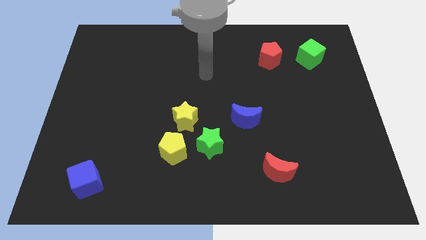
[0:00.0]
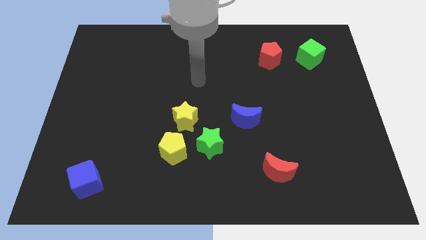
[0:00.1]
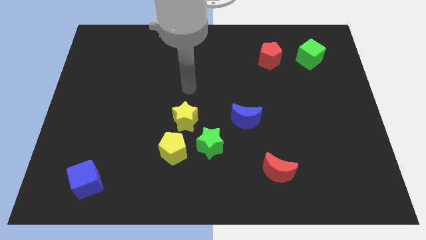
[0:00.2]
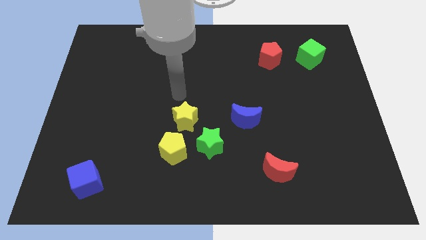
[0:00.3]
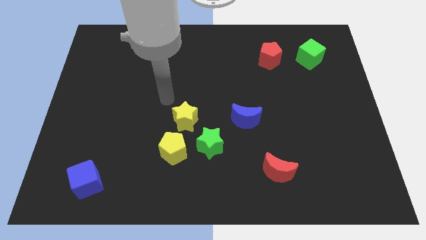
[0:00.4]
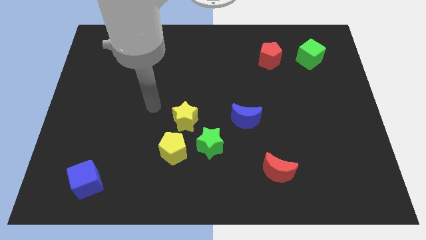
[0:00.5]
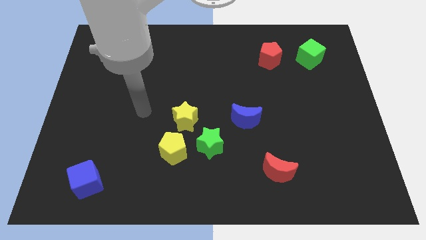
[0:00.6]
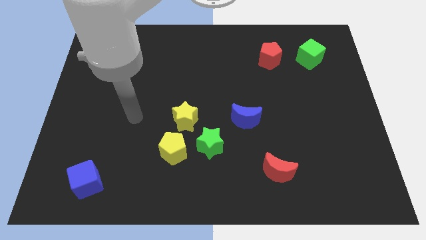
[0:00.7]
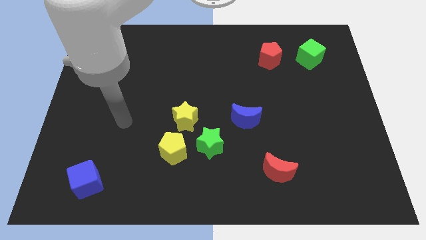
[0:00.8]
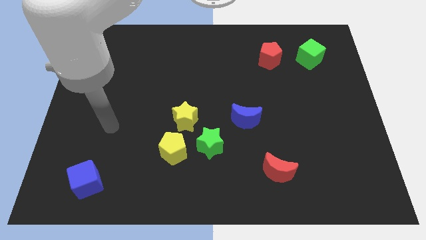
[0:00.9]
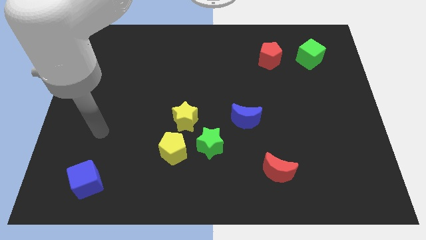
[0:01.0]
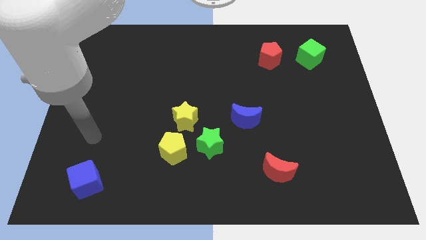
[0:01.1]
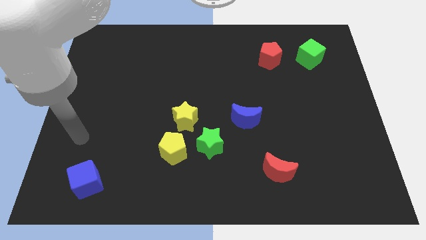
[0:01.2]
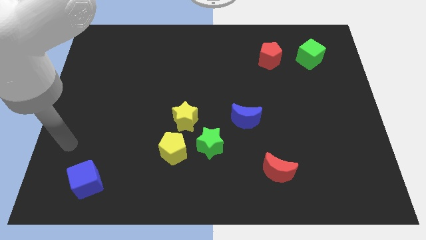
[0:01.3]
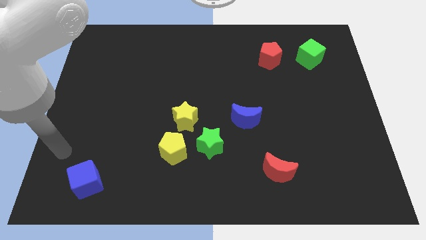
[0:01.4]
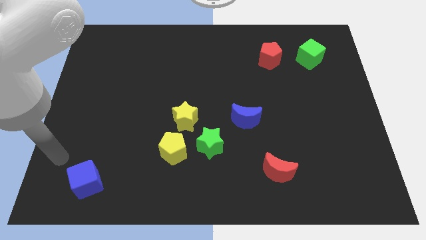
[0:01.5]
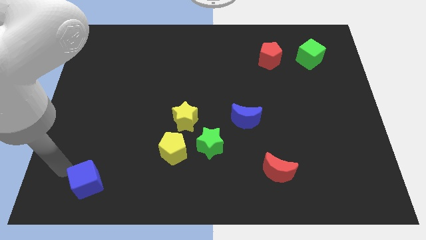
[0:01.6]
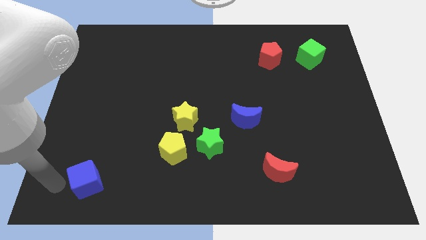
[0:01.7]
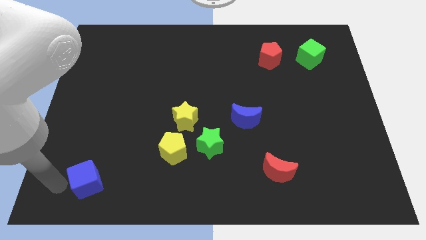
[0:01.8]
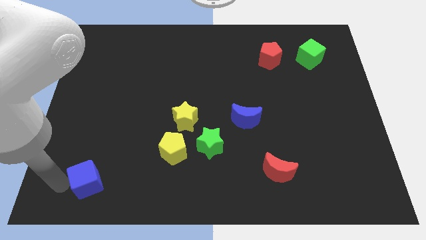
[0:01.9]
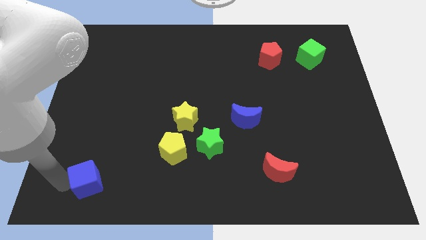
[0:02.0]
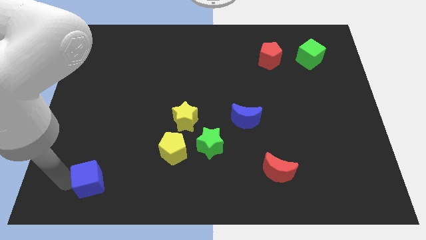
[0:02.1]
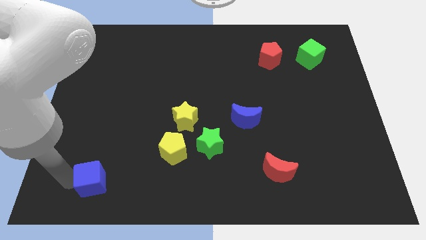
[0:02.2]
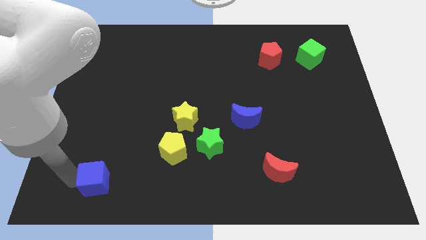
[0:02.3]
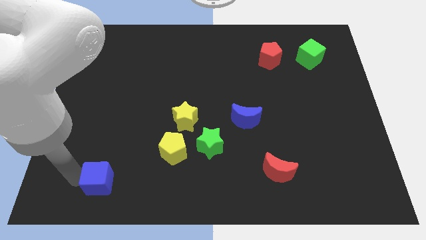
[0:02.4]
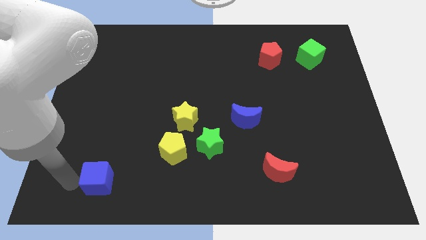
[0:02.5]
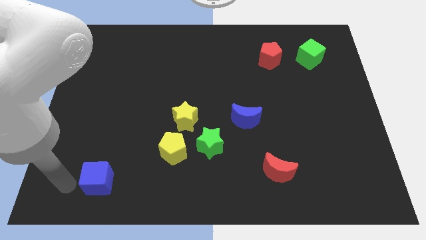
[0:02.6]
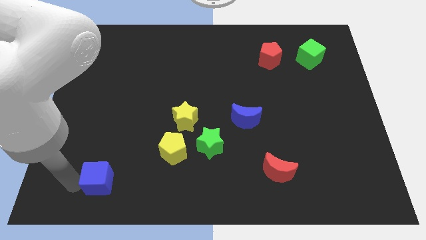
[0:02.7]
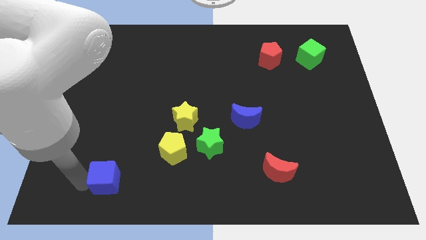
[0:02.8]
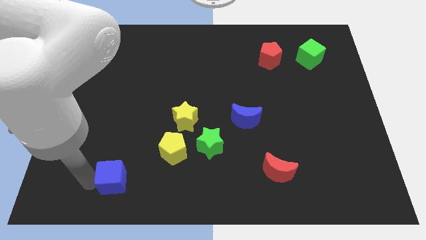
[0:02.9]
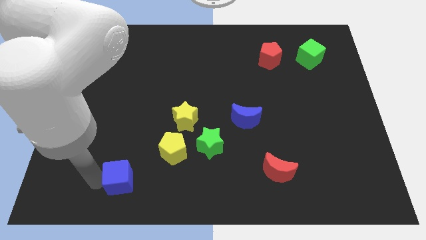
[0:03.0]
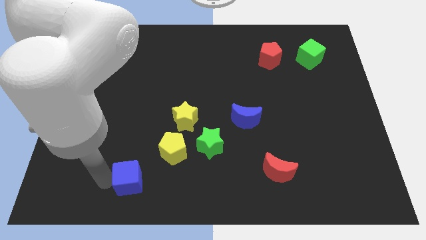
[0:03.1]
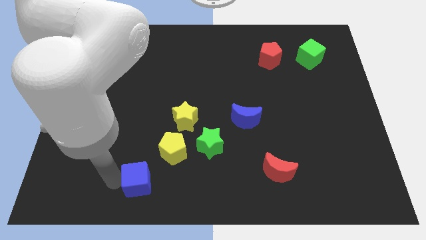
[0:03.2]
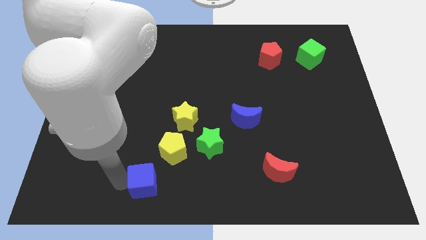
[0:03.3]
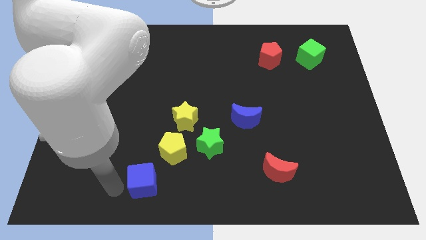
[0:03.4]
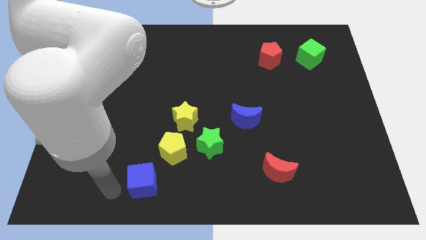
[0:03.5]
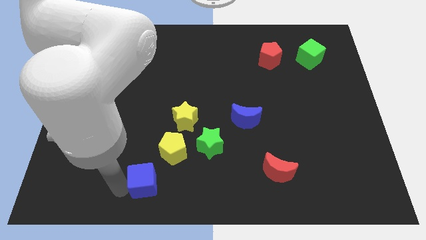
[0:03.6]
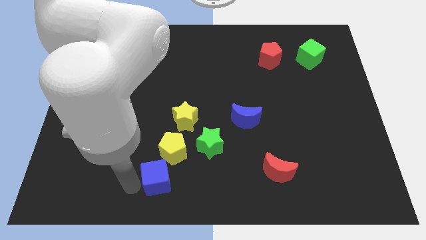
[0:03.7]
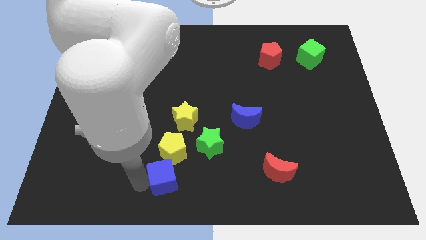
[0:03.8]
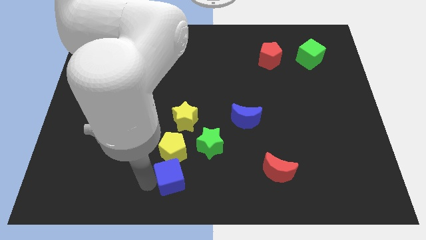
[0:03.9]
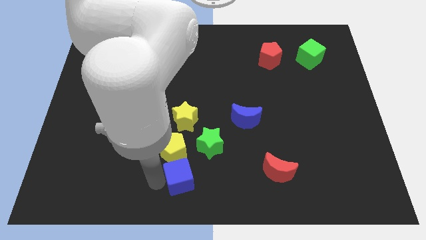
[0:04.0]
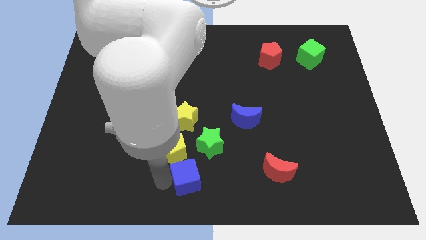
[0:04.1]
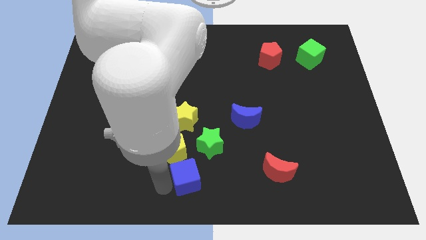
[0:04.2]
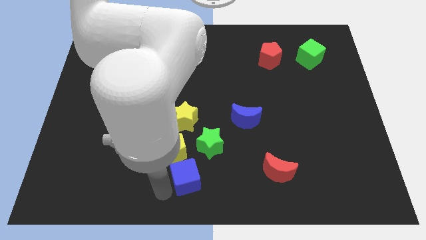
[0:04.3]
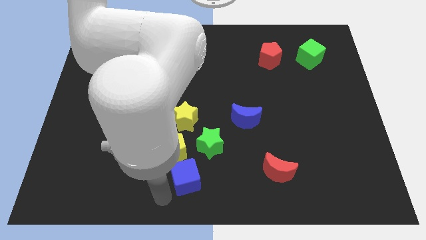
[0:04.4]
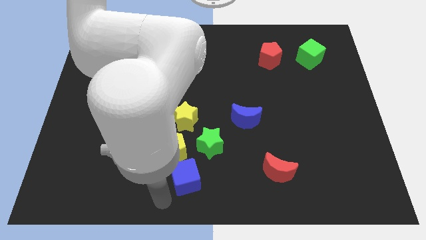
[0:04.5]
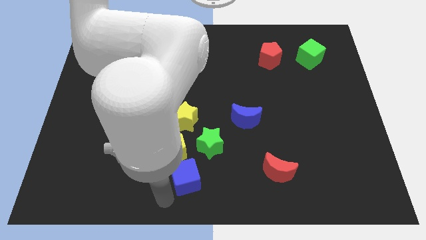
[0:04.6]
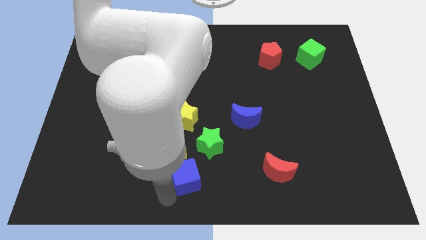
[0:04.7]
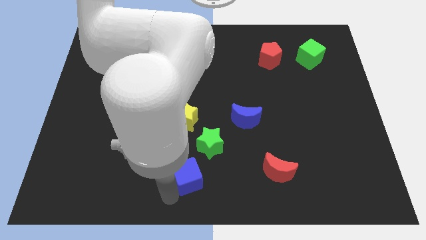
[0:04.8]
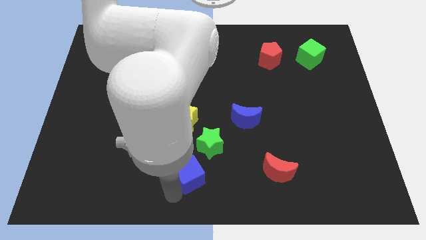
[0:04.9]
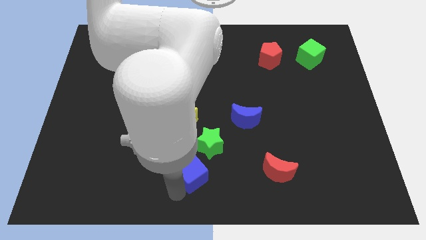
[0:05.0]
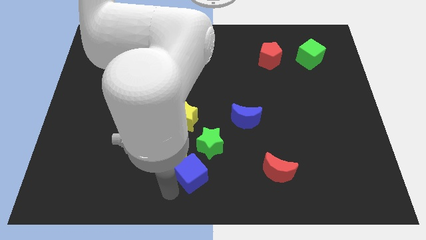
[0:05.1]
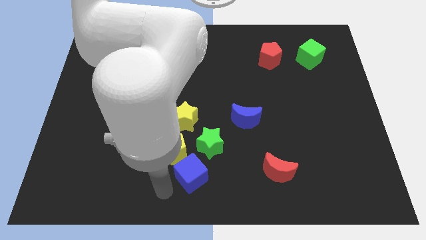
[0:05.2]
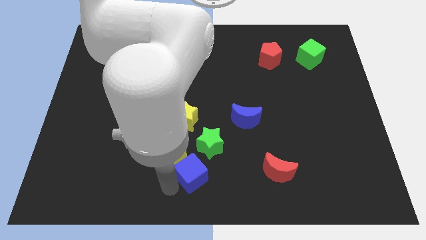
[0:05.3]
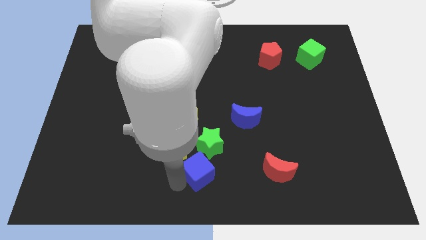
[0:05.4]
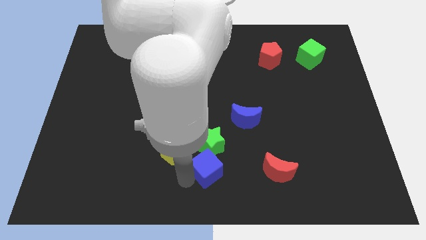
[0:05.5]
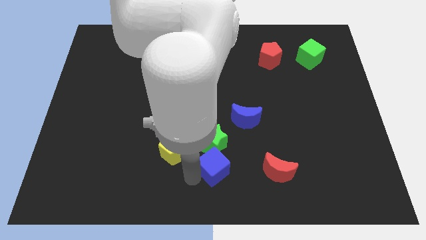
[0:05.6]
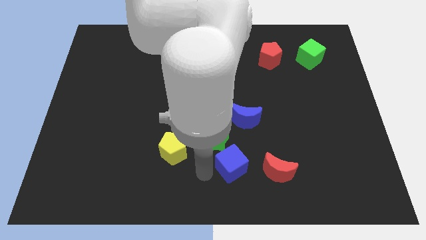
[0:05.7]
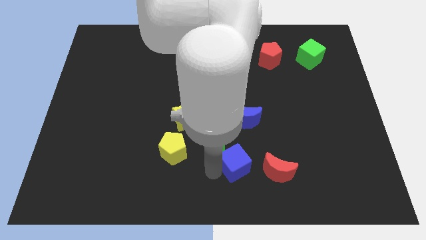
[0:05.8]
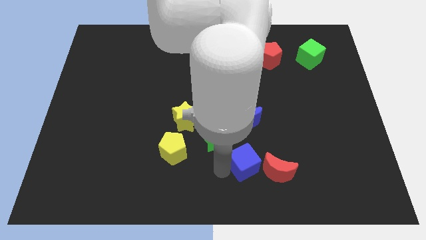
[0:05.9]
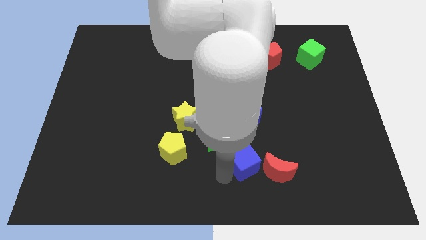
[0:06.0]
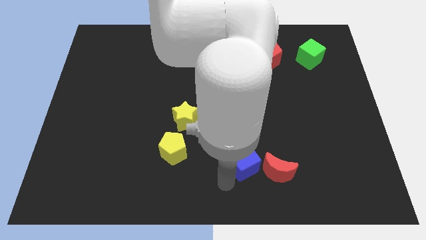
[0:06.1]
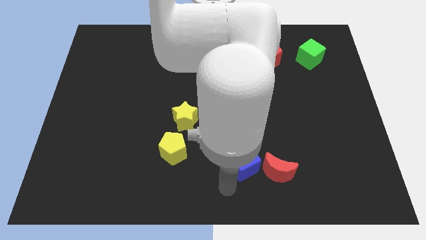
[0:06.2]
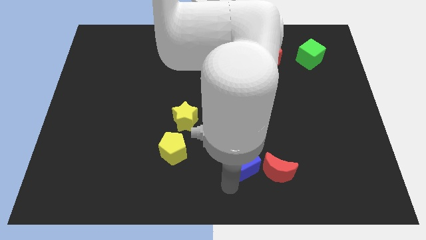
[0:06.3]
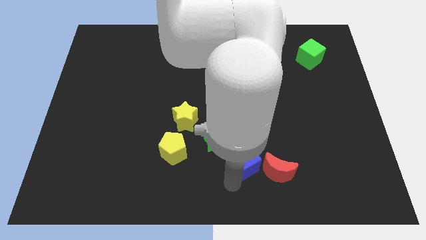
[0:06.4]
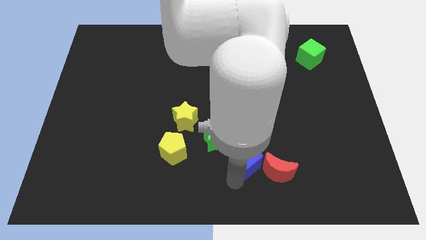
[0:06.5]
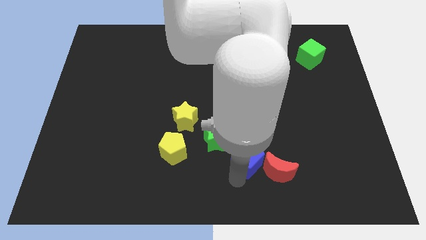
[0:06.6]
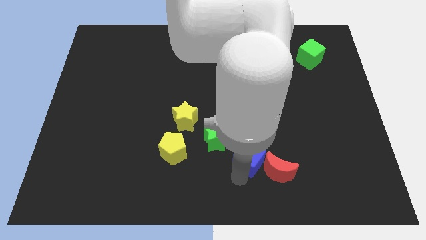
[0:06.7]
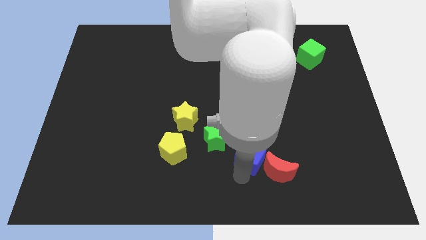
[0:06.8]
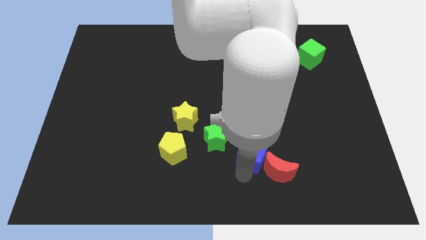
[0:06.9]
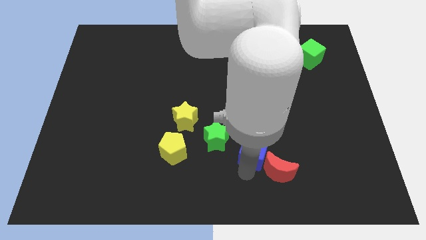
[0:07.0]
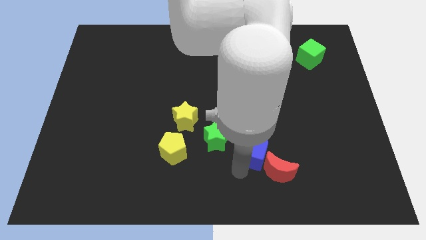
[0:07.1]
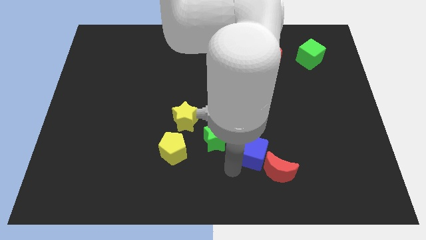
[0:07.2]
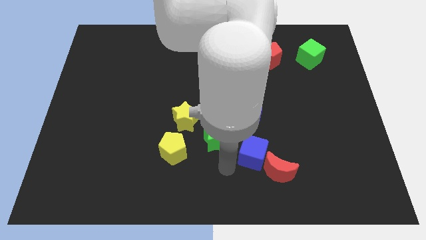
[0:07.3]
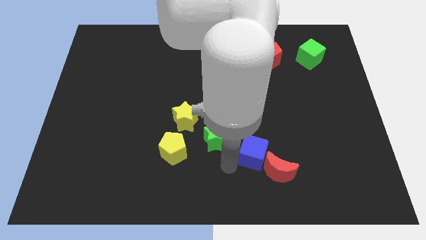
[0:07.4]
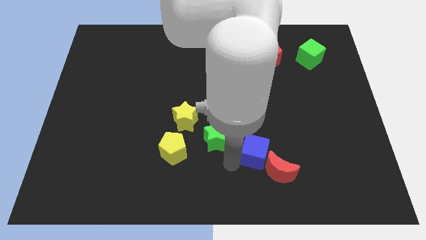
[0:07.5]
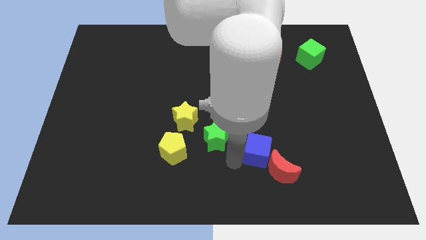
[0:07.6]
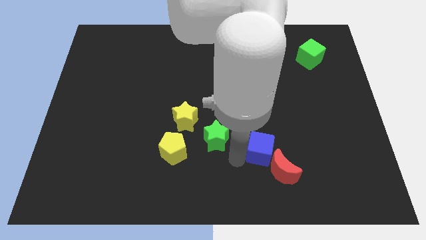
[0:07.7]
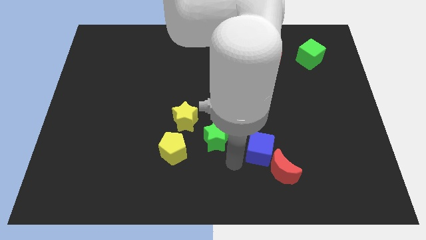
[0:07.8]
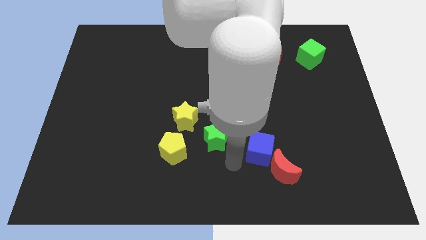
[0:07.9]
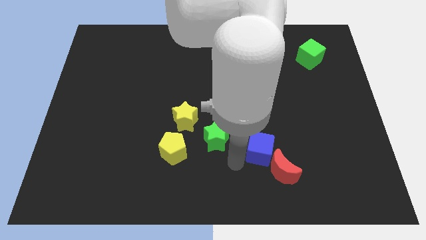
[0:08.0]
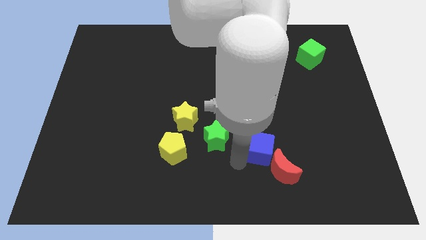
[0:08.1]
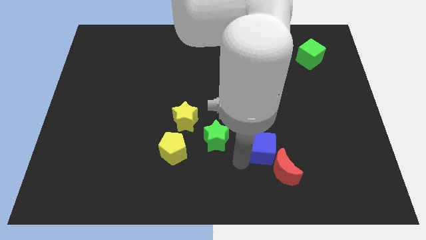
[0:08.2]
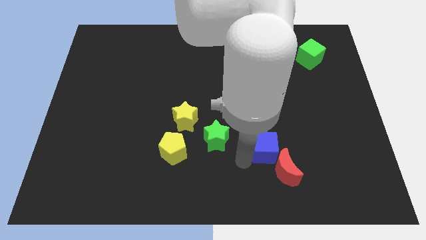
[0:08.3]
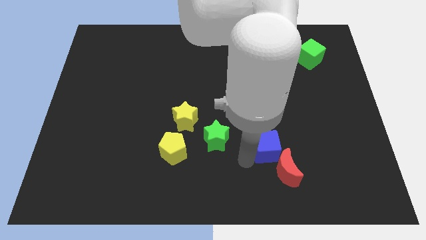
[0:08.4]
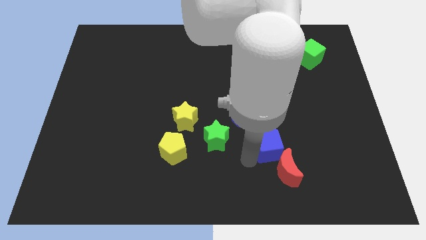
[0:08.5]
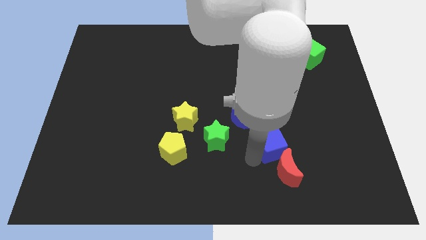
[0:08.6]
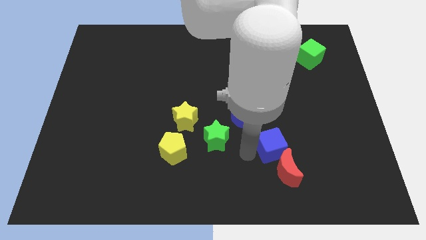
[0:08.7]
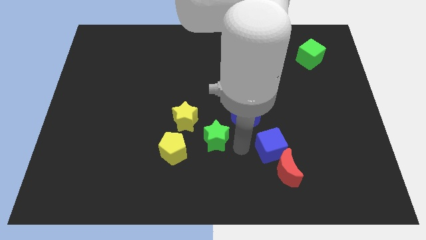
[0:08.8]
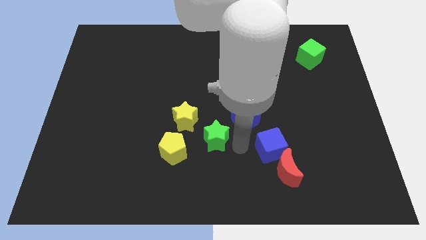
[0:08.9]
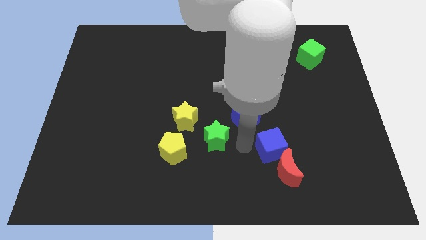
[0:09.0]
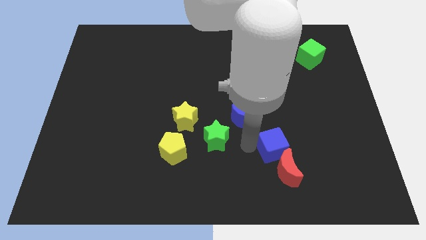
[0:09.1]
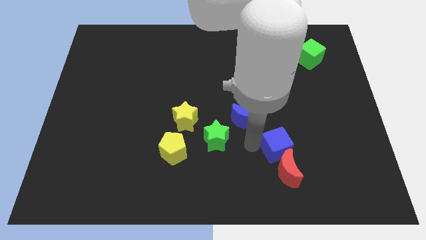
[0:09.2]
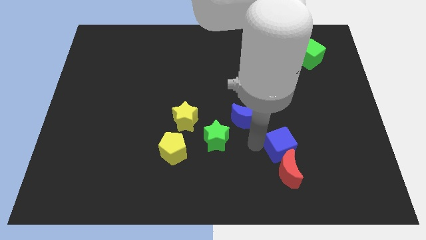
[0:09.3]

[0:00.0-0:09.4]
move the blue cube diagonally up and to the right of the red moon
